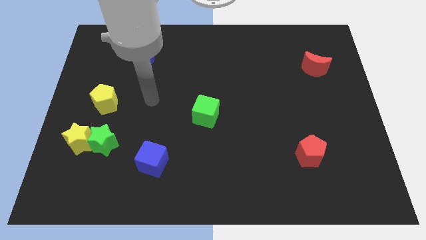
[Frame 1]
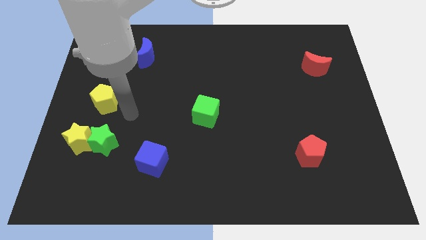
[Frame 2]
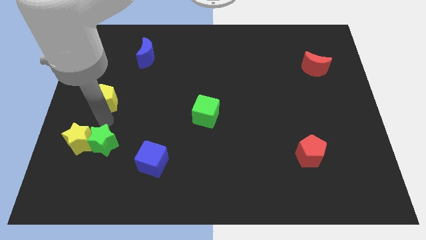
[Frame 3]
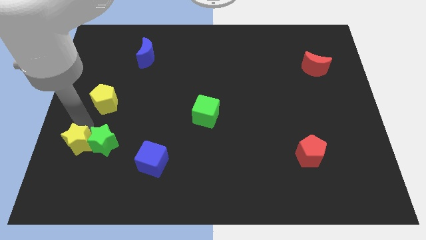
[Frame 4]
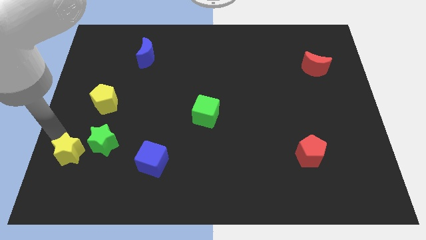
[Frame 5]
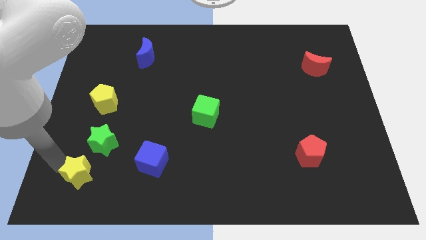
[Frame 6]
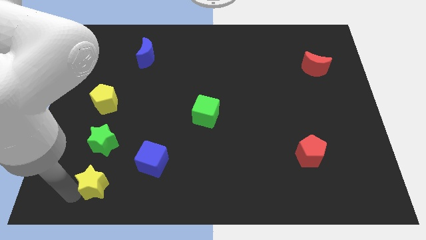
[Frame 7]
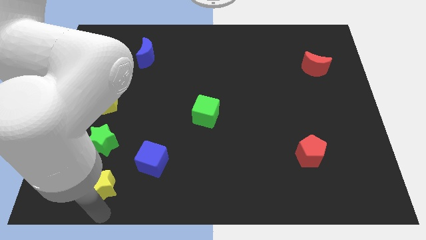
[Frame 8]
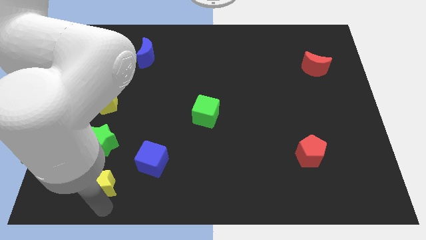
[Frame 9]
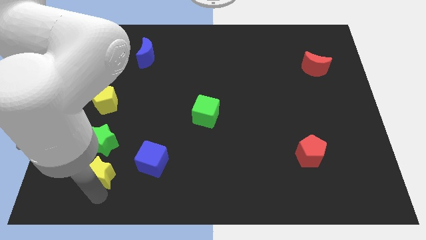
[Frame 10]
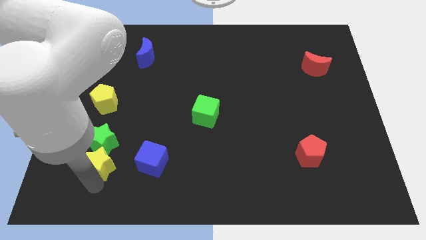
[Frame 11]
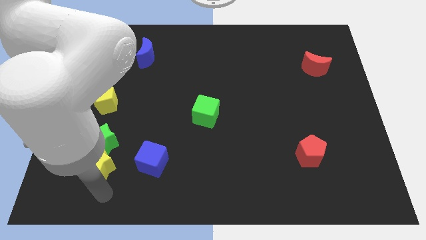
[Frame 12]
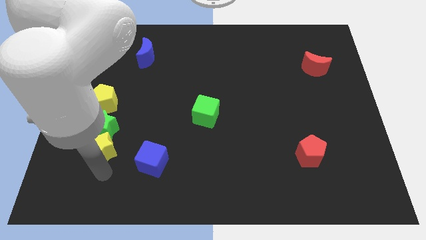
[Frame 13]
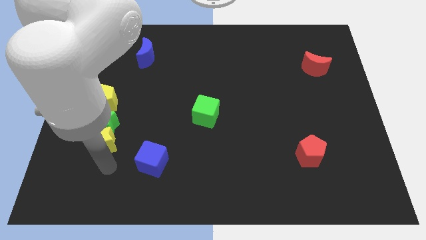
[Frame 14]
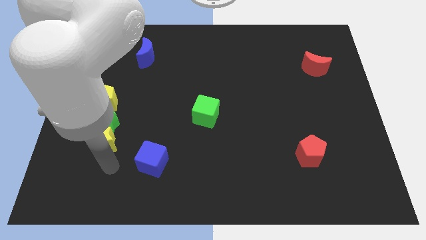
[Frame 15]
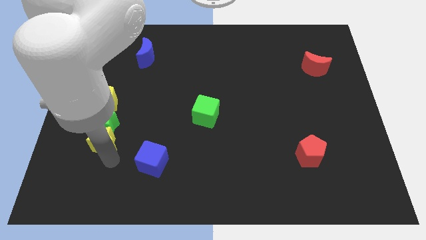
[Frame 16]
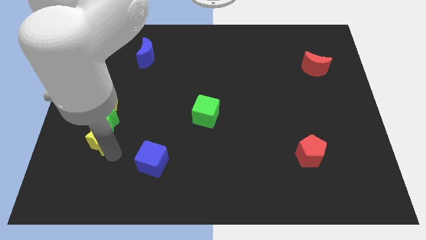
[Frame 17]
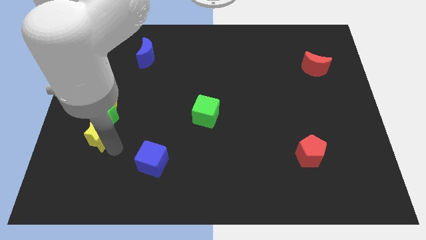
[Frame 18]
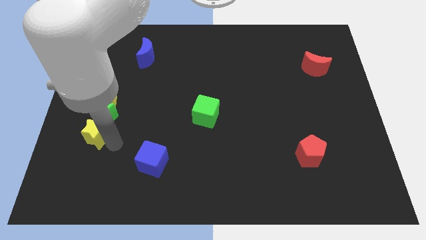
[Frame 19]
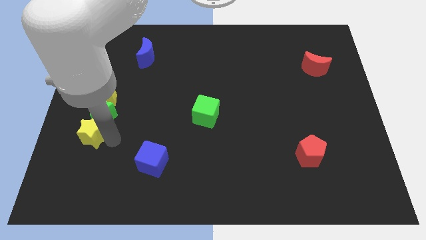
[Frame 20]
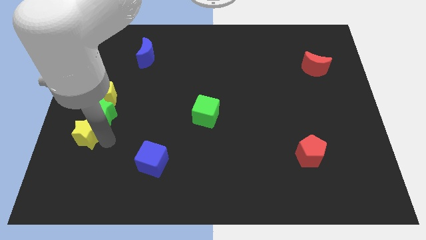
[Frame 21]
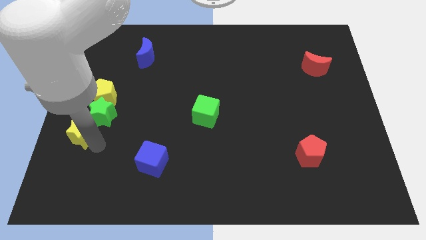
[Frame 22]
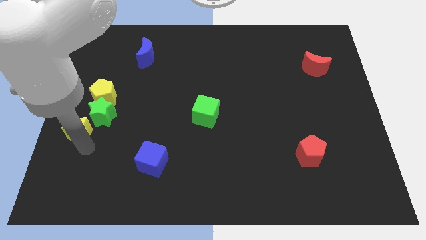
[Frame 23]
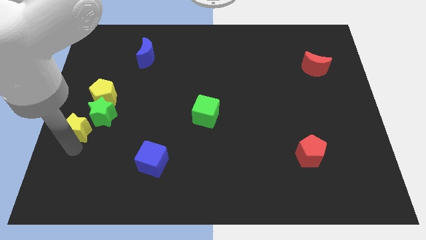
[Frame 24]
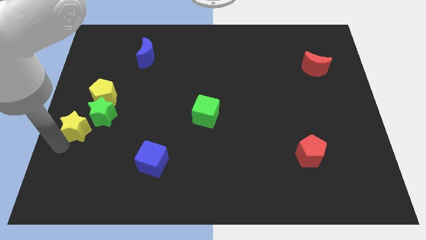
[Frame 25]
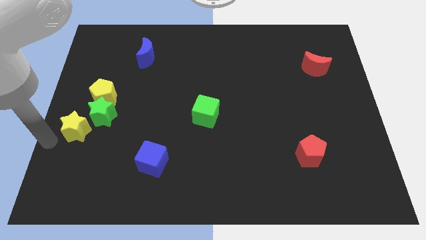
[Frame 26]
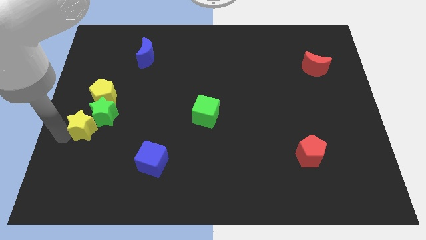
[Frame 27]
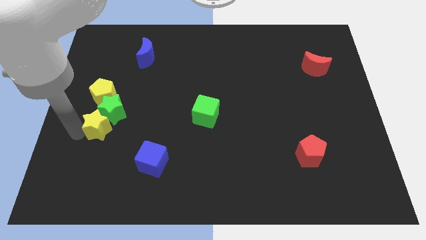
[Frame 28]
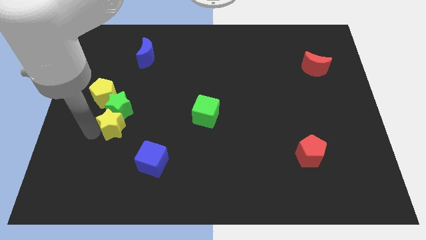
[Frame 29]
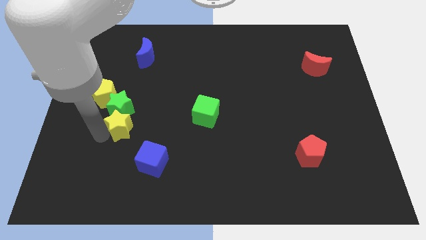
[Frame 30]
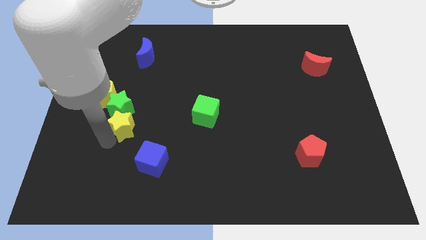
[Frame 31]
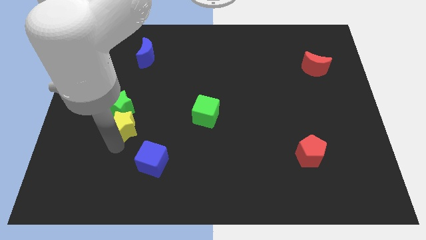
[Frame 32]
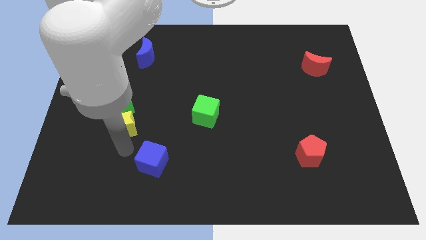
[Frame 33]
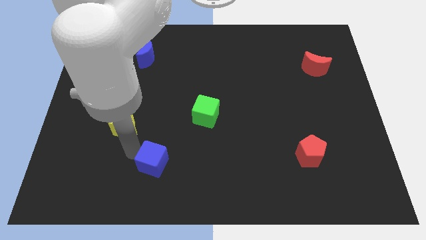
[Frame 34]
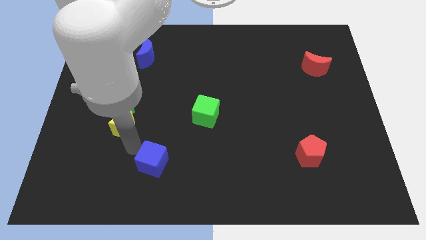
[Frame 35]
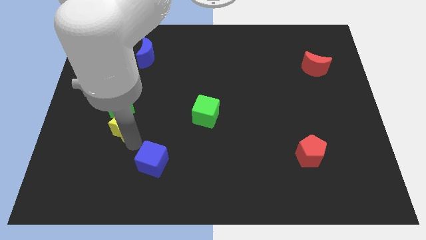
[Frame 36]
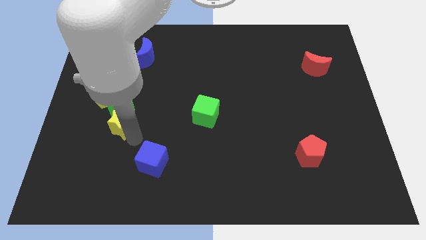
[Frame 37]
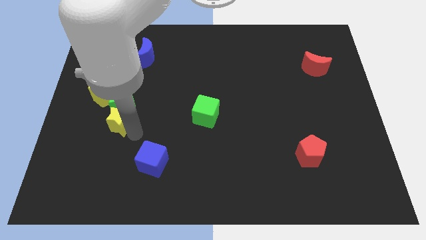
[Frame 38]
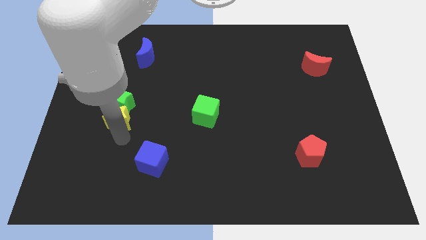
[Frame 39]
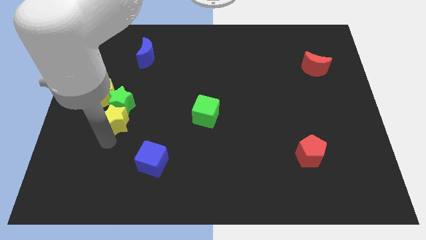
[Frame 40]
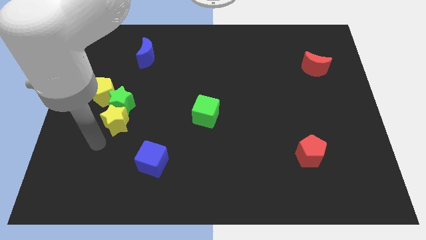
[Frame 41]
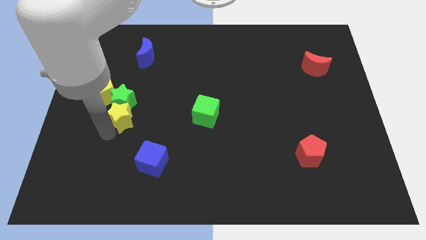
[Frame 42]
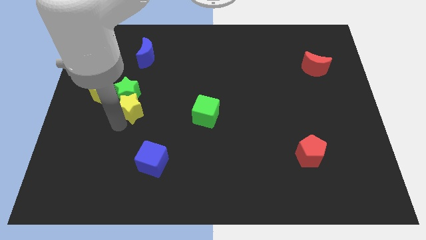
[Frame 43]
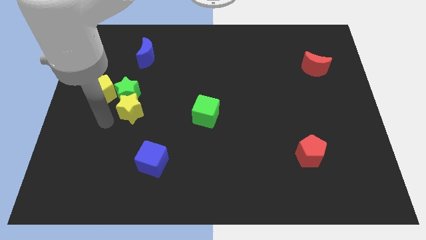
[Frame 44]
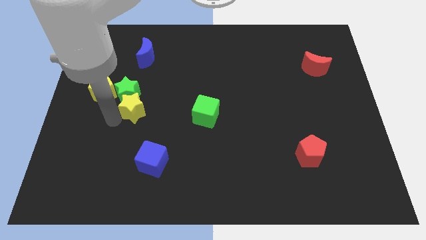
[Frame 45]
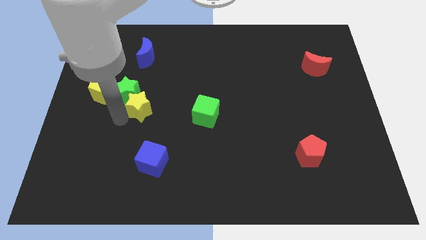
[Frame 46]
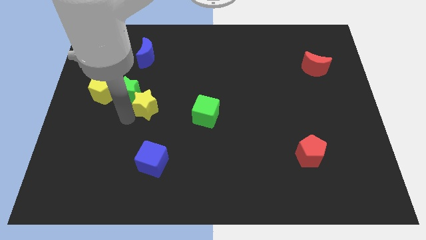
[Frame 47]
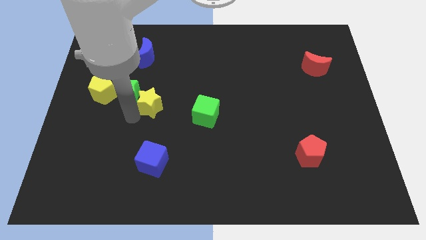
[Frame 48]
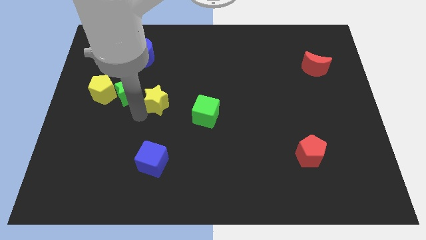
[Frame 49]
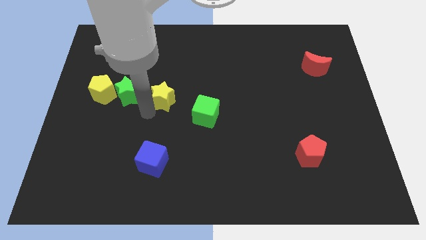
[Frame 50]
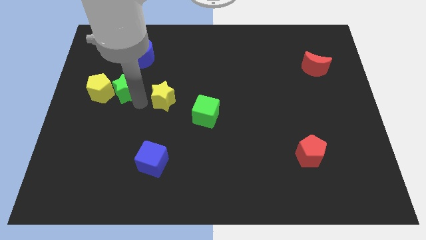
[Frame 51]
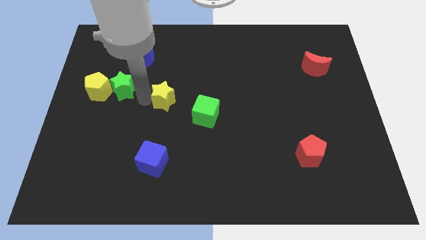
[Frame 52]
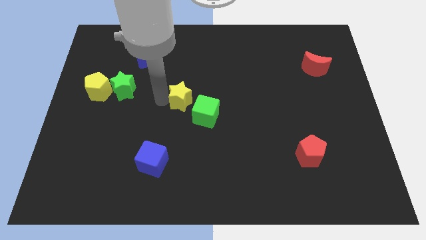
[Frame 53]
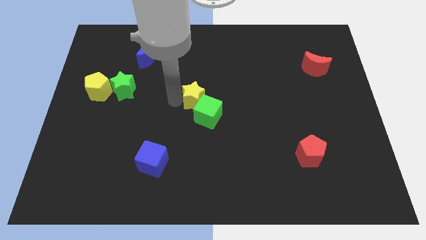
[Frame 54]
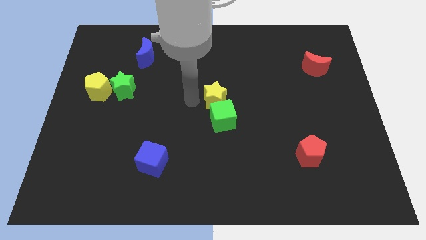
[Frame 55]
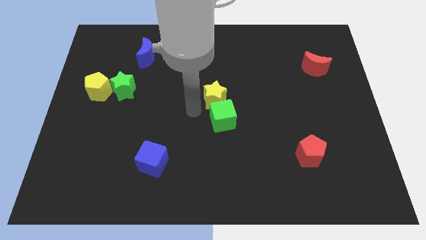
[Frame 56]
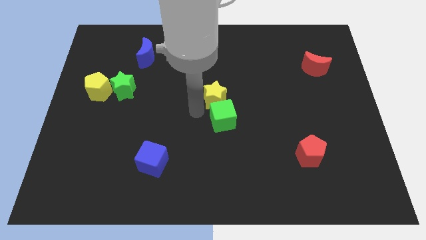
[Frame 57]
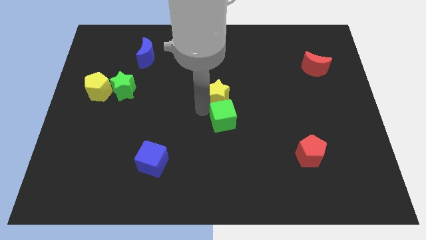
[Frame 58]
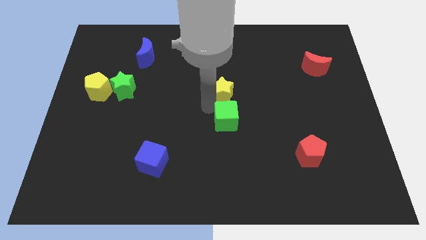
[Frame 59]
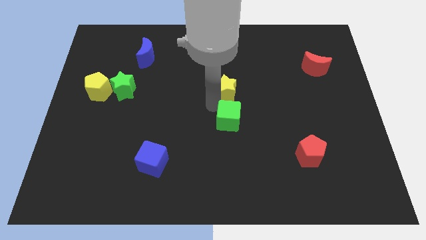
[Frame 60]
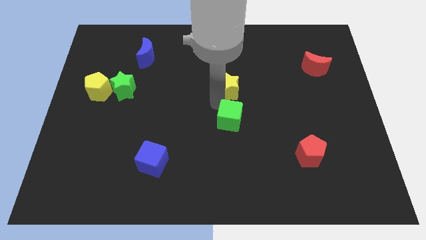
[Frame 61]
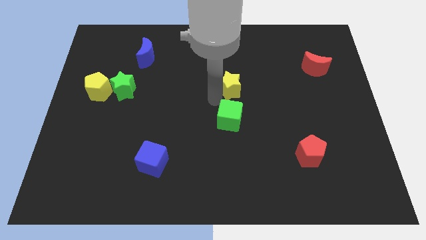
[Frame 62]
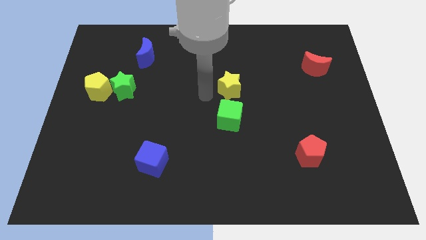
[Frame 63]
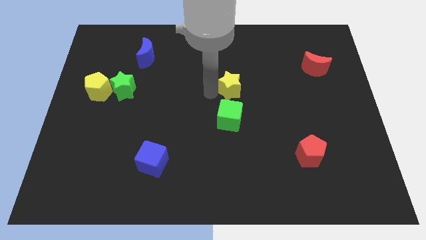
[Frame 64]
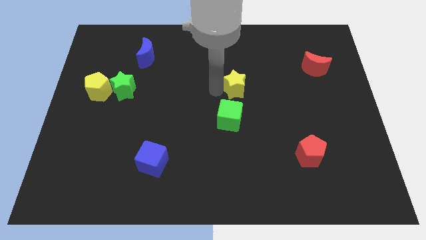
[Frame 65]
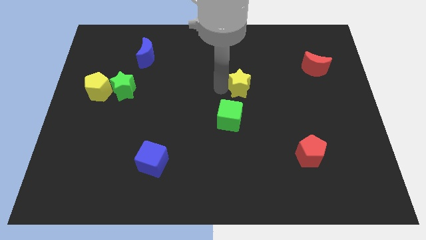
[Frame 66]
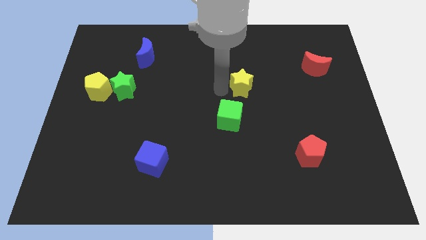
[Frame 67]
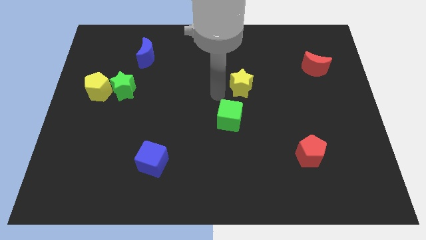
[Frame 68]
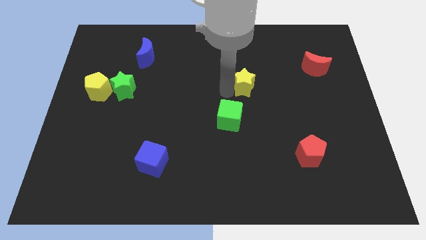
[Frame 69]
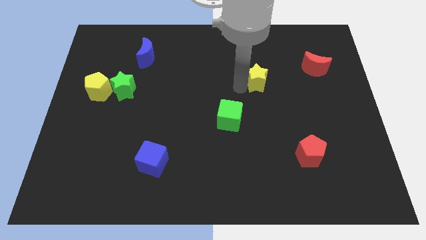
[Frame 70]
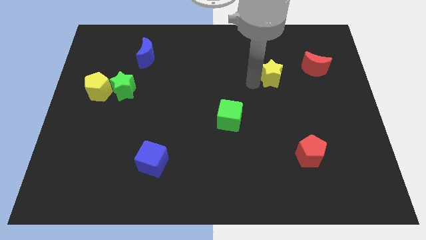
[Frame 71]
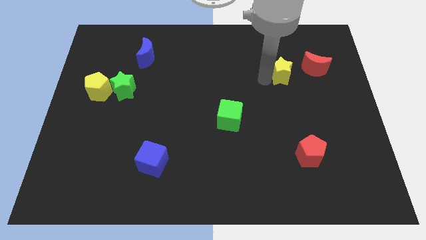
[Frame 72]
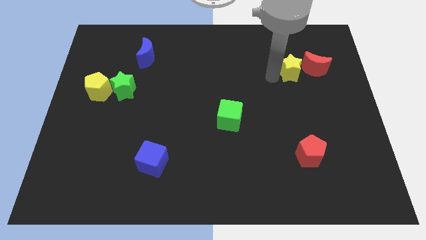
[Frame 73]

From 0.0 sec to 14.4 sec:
slide the yellow star next to the red moon
